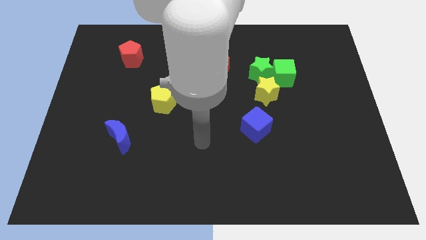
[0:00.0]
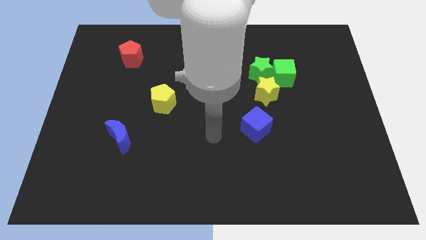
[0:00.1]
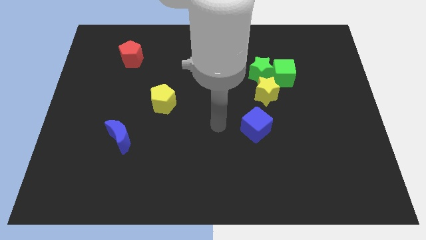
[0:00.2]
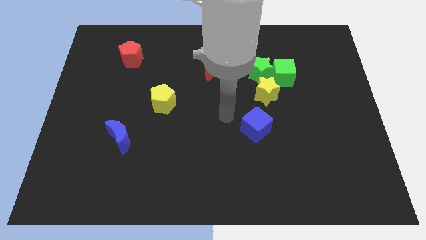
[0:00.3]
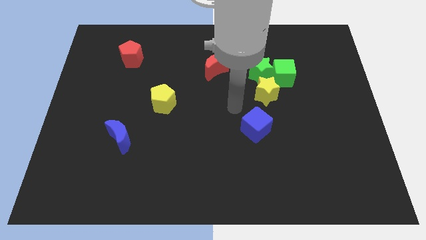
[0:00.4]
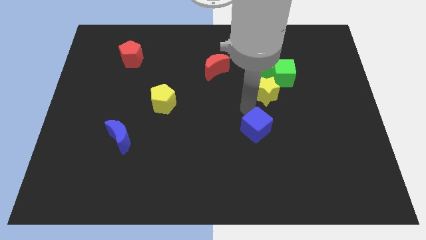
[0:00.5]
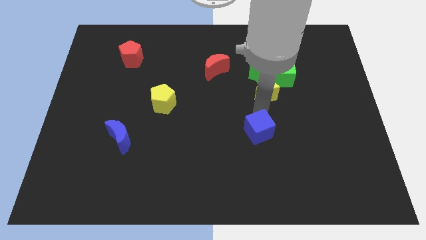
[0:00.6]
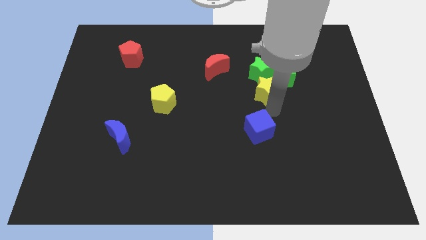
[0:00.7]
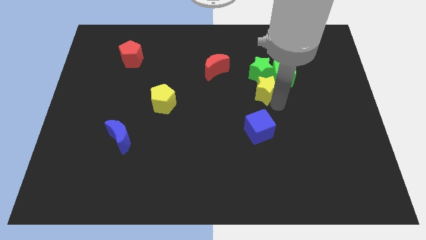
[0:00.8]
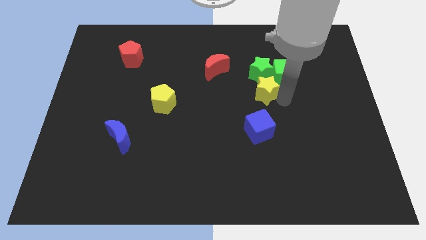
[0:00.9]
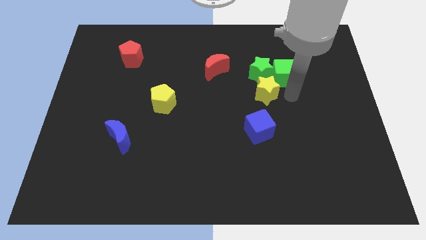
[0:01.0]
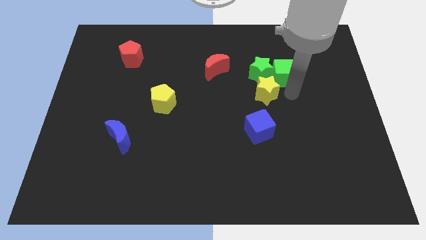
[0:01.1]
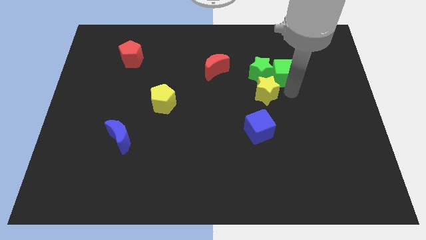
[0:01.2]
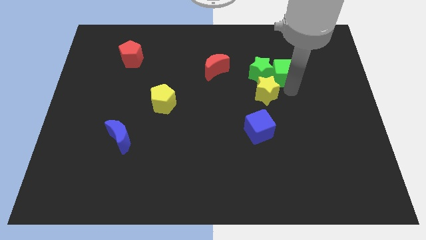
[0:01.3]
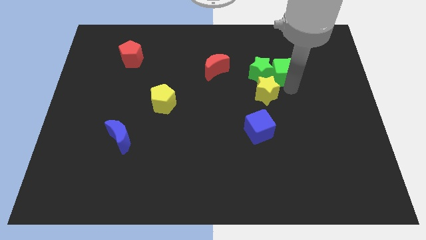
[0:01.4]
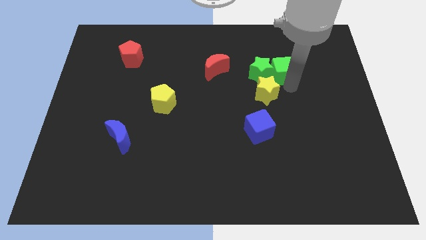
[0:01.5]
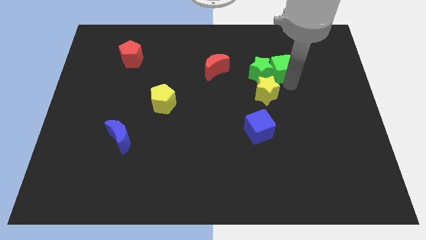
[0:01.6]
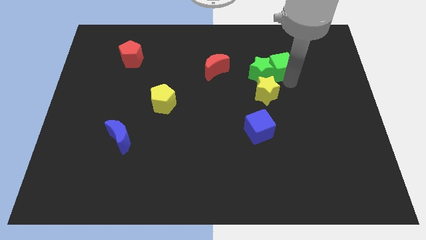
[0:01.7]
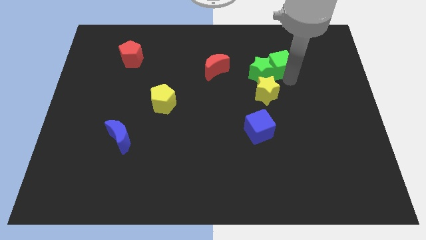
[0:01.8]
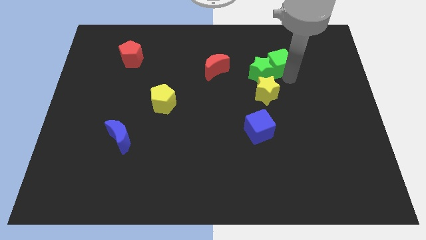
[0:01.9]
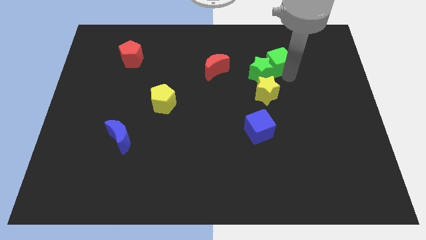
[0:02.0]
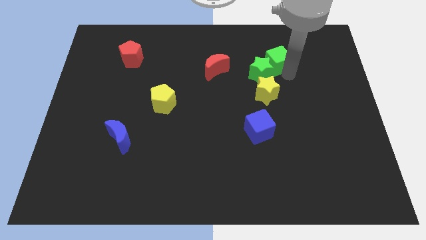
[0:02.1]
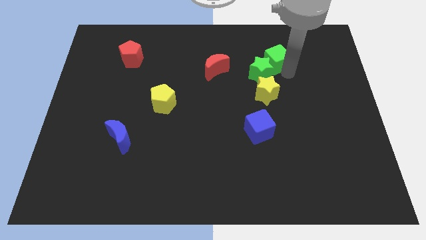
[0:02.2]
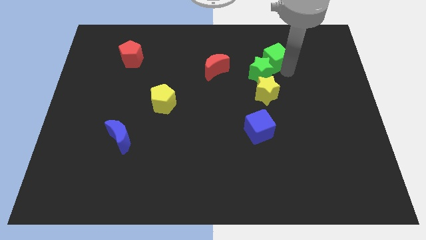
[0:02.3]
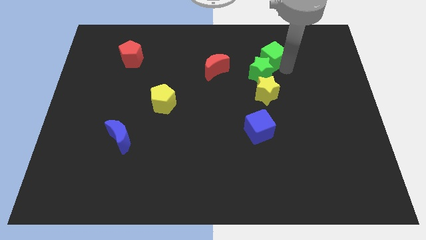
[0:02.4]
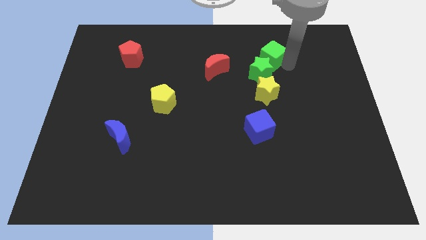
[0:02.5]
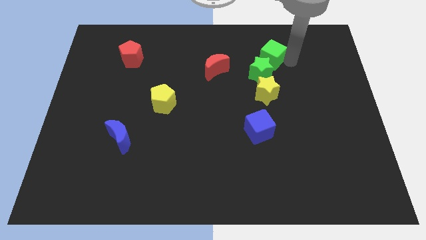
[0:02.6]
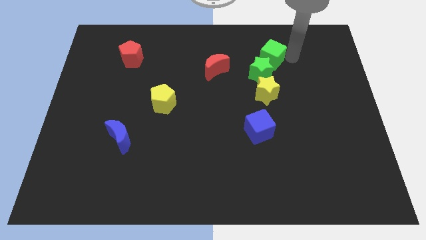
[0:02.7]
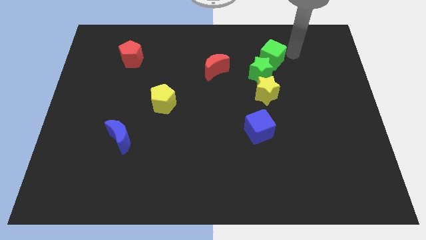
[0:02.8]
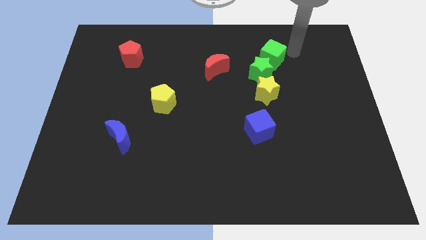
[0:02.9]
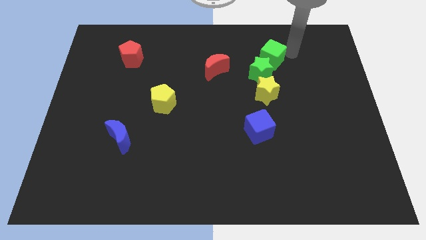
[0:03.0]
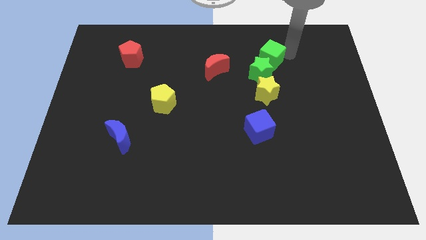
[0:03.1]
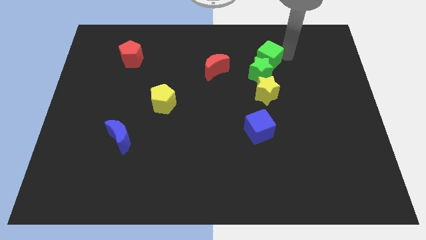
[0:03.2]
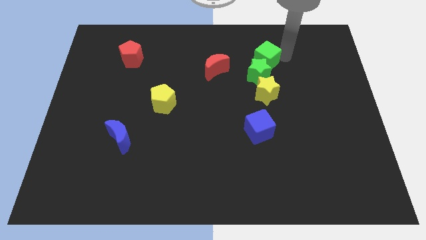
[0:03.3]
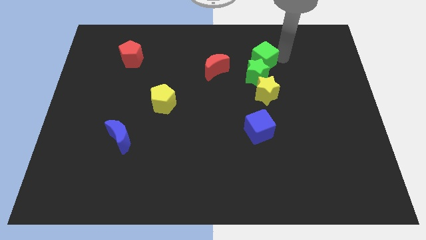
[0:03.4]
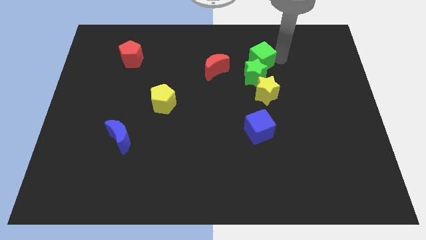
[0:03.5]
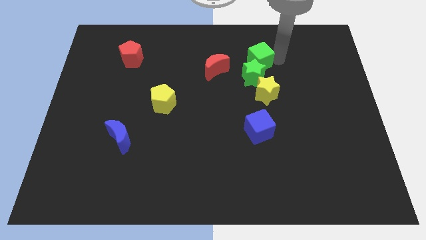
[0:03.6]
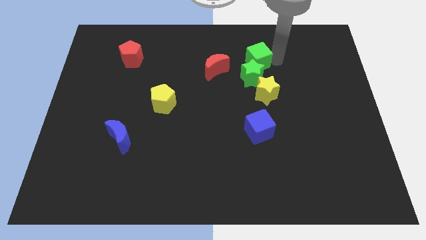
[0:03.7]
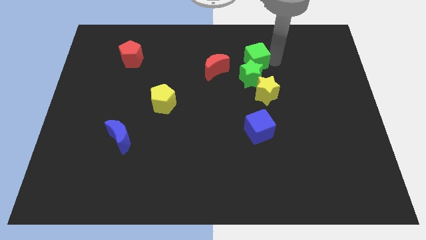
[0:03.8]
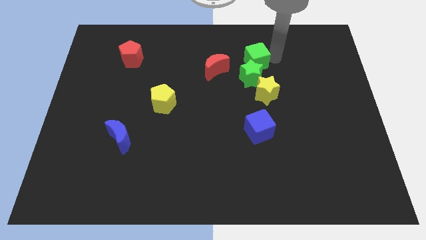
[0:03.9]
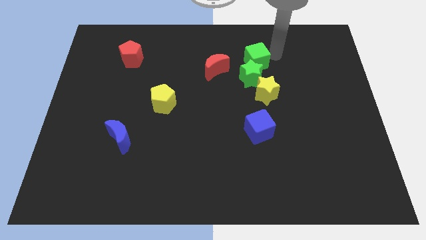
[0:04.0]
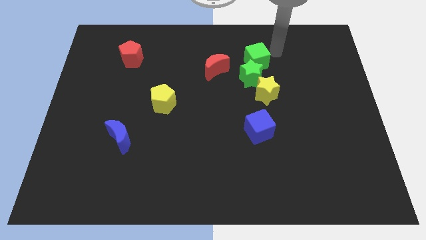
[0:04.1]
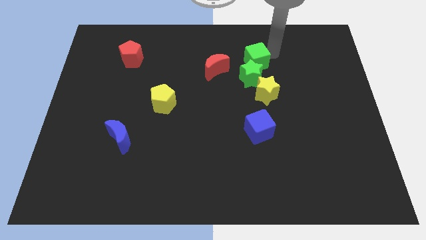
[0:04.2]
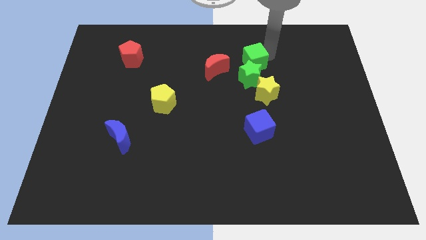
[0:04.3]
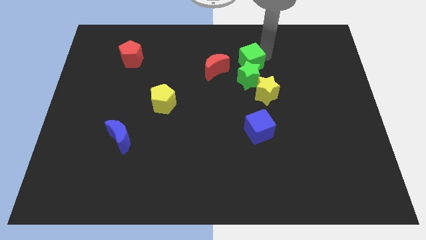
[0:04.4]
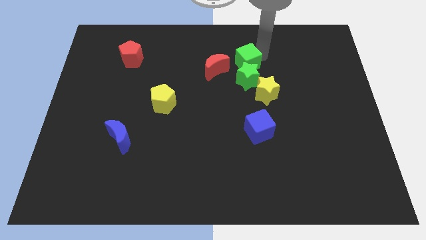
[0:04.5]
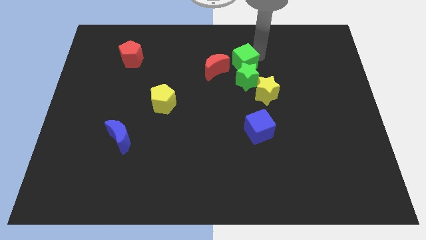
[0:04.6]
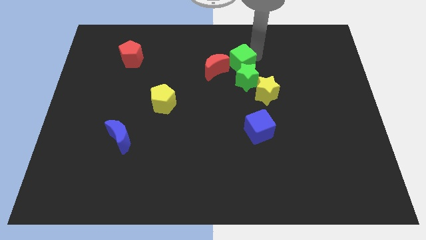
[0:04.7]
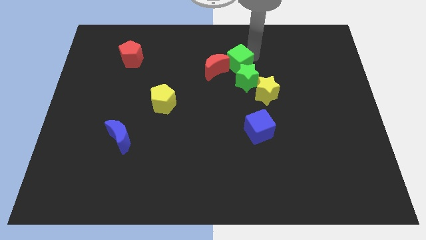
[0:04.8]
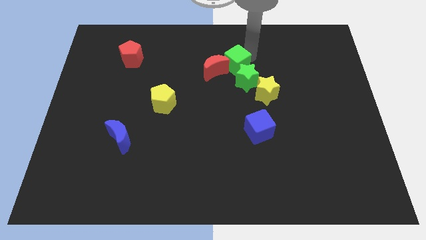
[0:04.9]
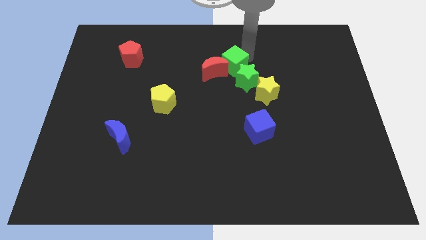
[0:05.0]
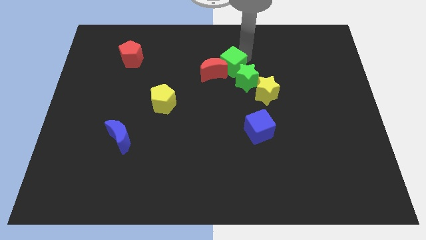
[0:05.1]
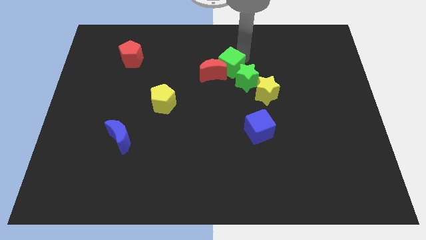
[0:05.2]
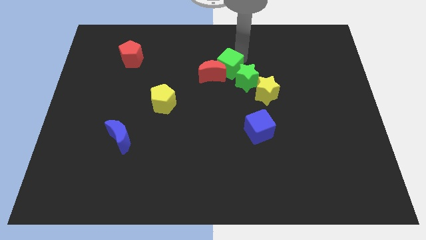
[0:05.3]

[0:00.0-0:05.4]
push the green cube to the left side of the green star
